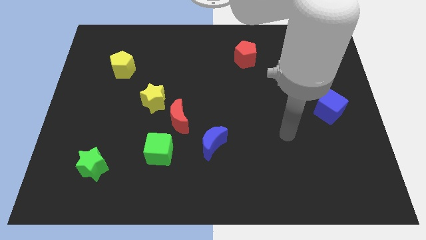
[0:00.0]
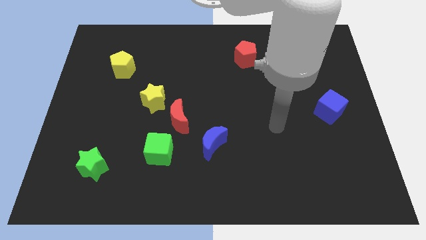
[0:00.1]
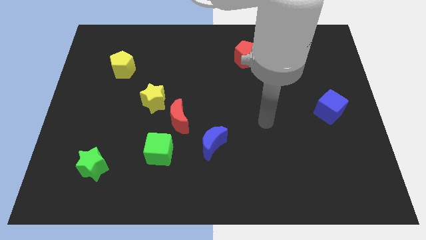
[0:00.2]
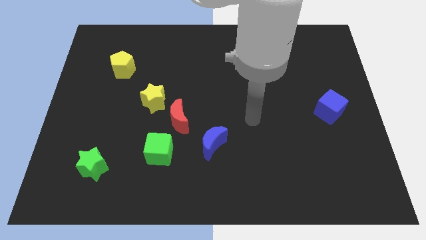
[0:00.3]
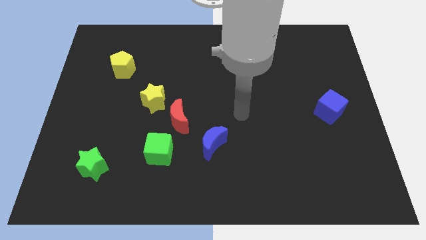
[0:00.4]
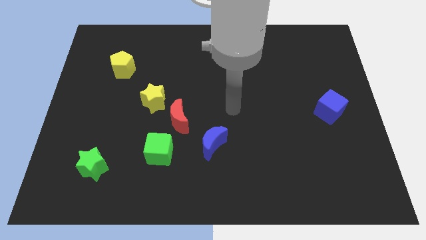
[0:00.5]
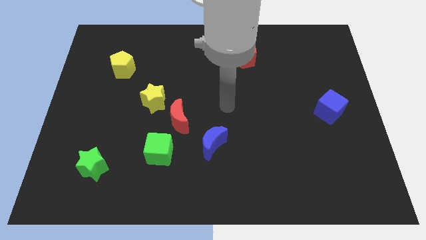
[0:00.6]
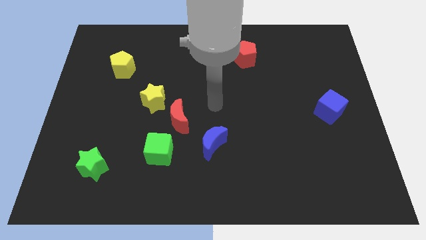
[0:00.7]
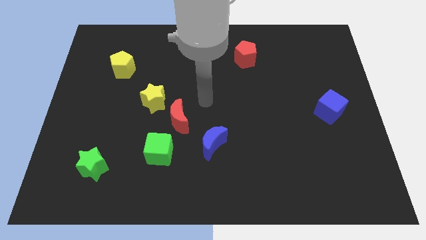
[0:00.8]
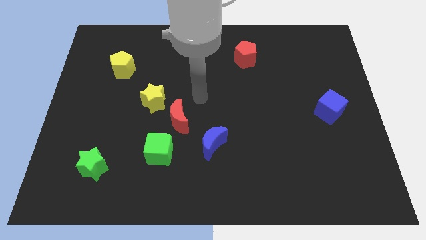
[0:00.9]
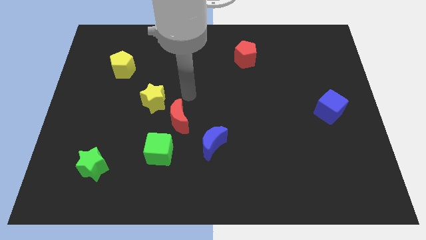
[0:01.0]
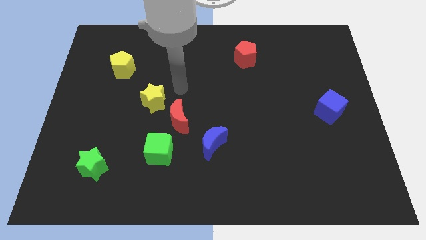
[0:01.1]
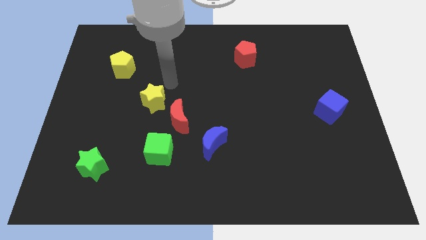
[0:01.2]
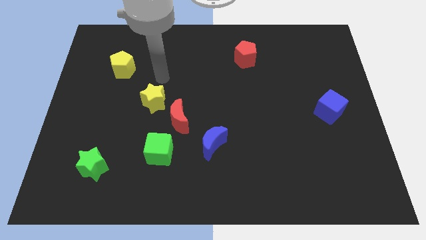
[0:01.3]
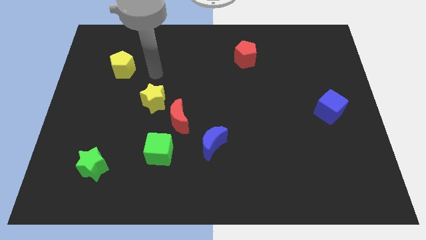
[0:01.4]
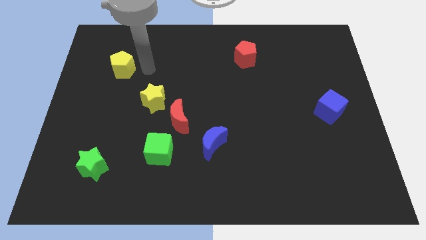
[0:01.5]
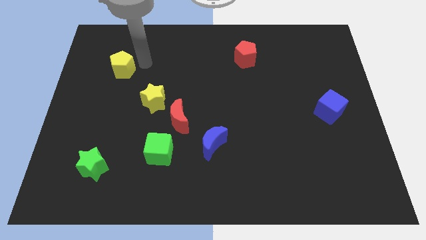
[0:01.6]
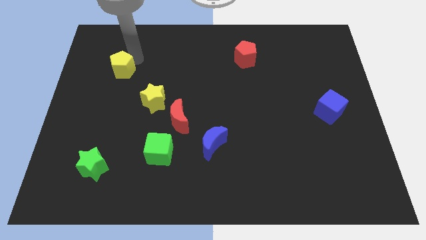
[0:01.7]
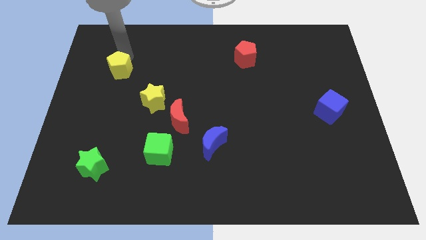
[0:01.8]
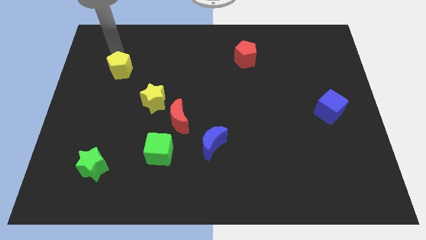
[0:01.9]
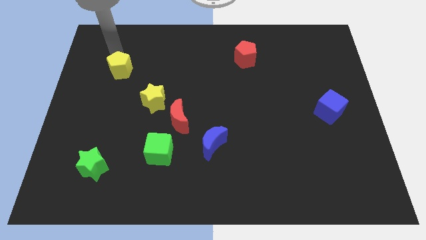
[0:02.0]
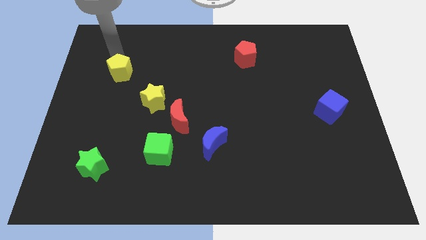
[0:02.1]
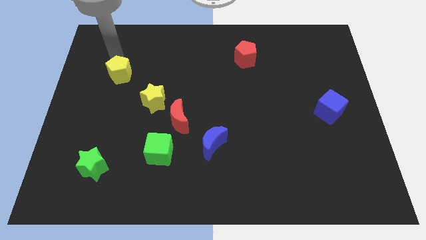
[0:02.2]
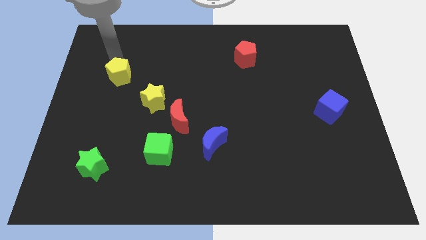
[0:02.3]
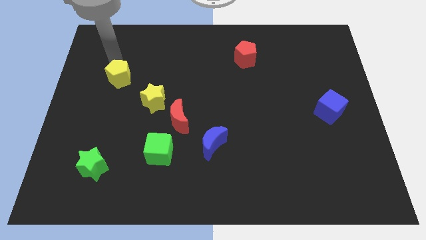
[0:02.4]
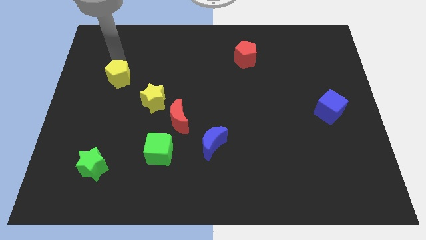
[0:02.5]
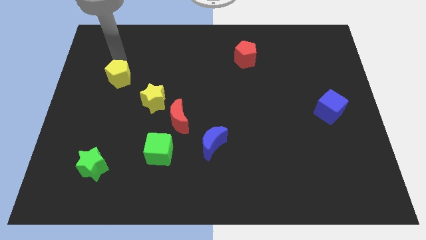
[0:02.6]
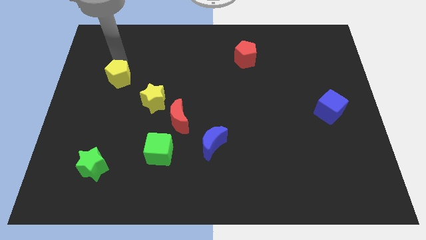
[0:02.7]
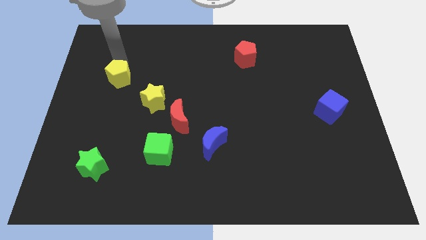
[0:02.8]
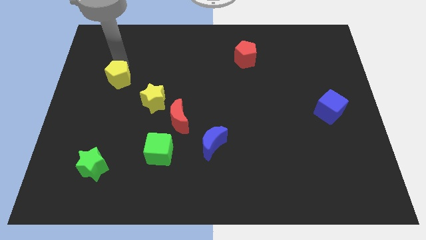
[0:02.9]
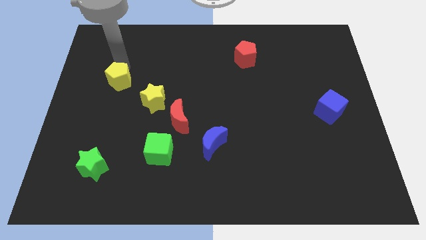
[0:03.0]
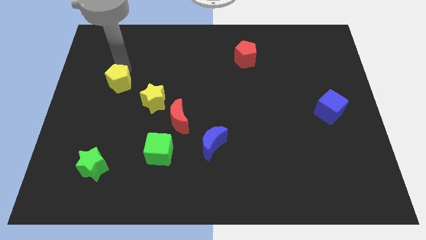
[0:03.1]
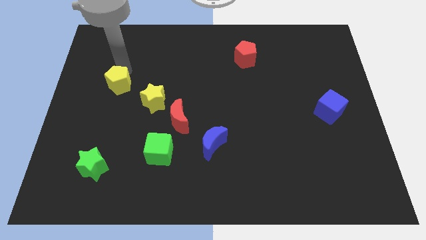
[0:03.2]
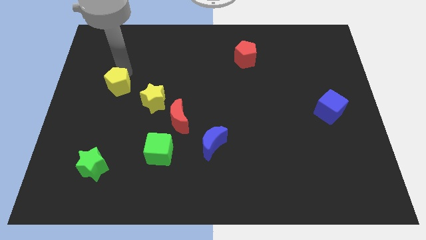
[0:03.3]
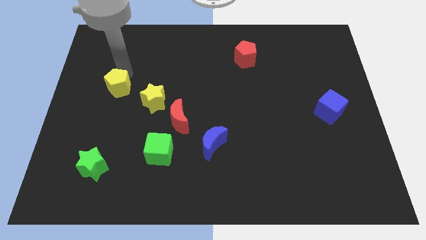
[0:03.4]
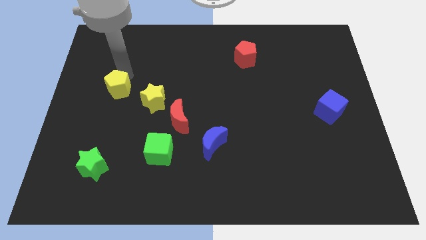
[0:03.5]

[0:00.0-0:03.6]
slide the yellow pentagon down slightly

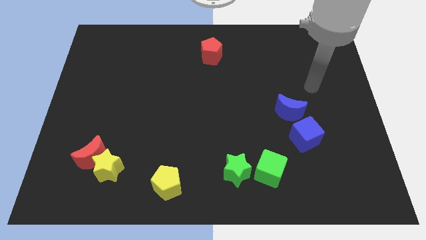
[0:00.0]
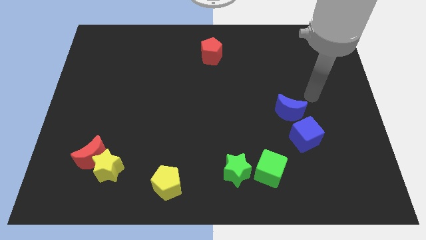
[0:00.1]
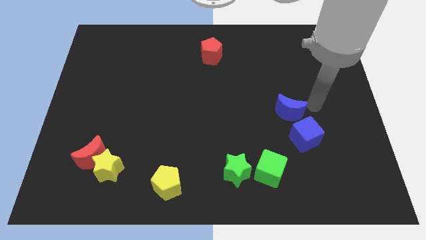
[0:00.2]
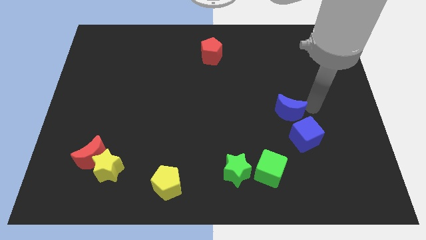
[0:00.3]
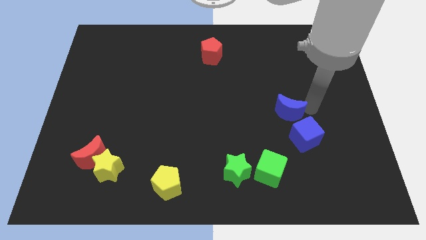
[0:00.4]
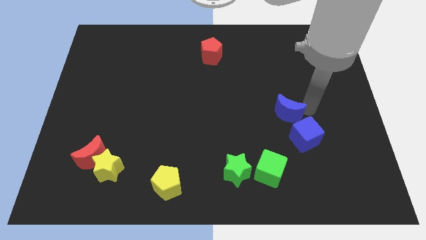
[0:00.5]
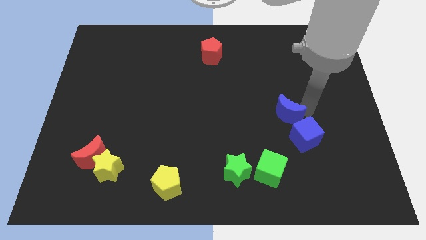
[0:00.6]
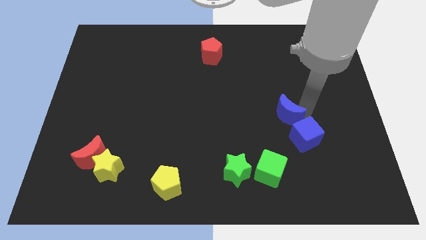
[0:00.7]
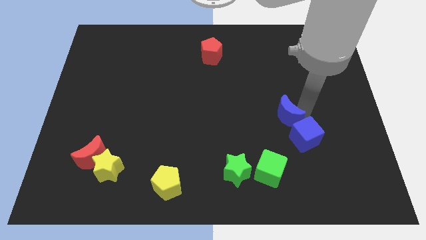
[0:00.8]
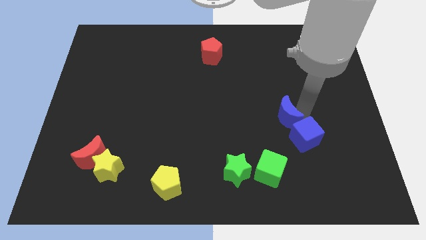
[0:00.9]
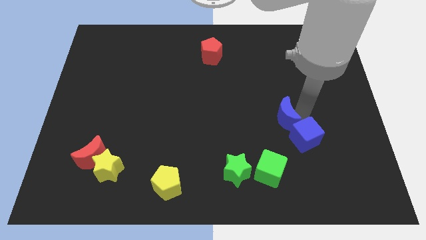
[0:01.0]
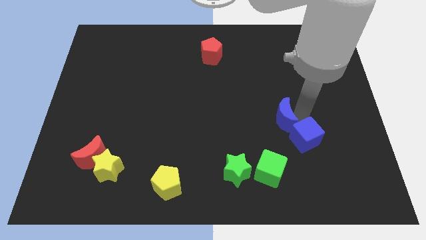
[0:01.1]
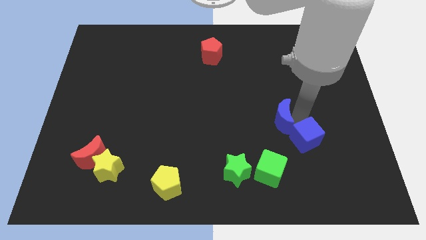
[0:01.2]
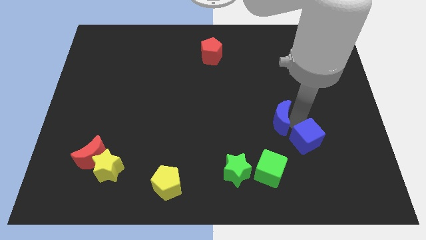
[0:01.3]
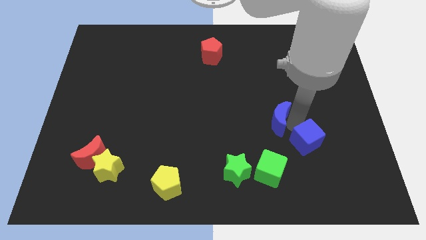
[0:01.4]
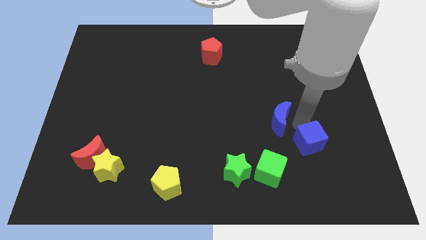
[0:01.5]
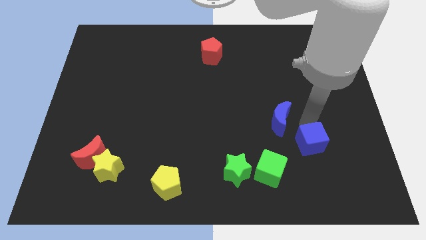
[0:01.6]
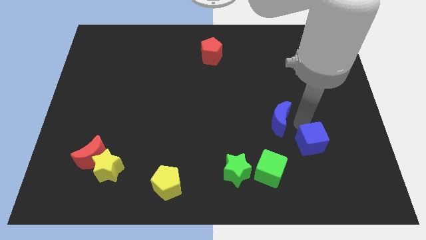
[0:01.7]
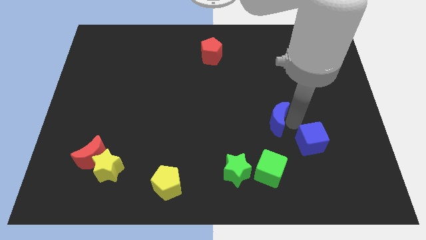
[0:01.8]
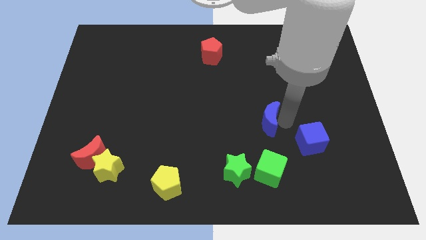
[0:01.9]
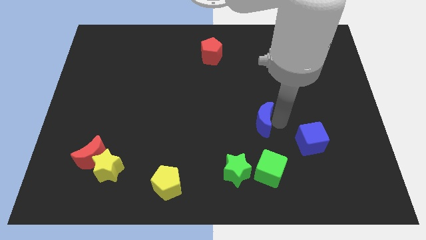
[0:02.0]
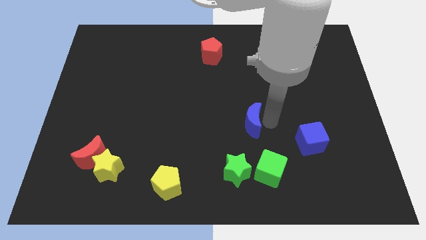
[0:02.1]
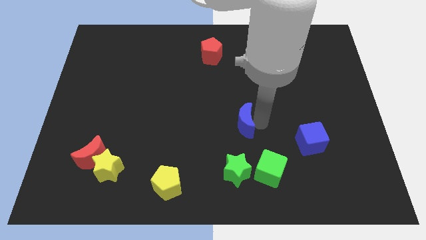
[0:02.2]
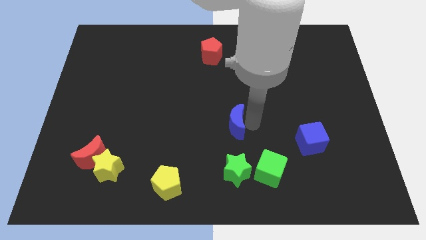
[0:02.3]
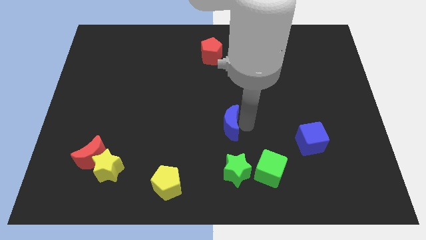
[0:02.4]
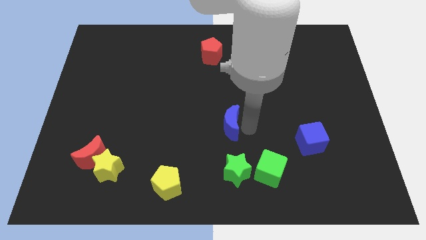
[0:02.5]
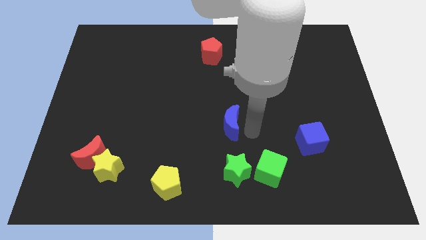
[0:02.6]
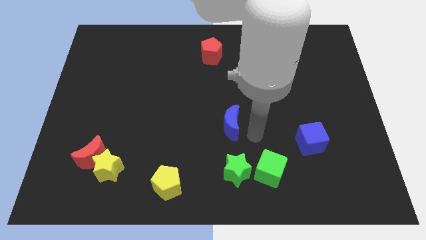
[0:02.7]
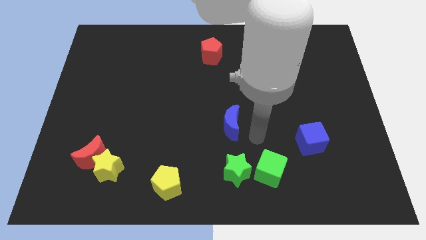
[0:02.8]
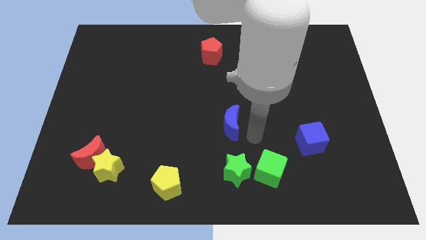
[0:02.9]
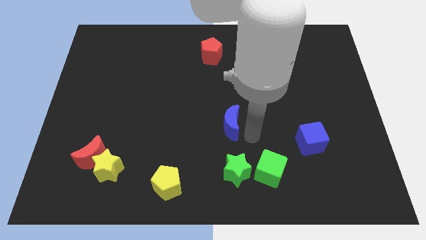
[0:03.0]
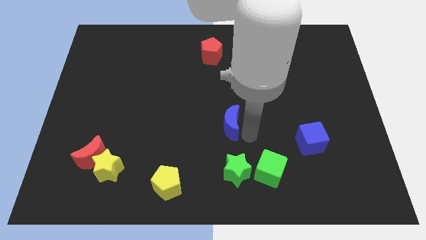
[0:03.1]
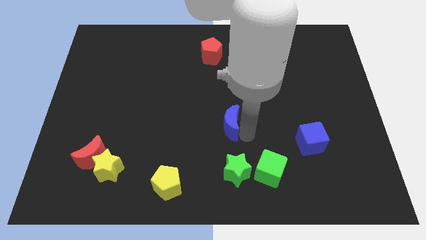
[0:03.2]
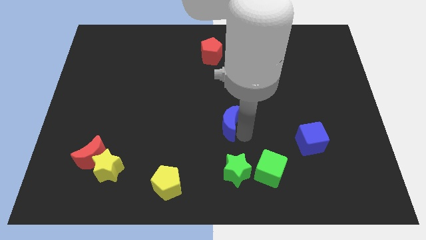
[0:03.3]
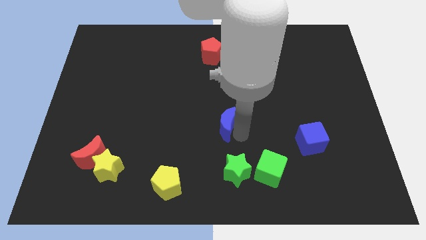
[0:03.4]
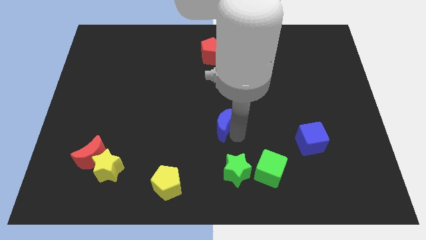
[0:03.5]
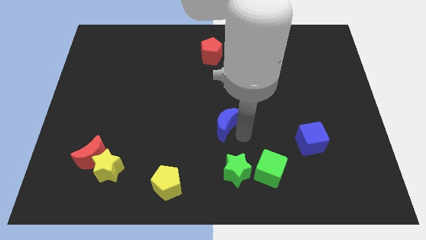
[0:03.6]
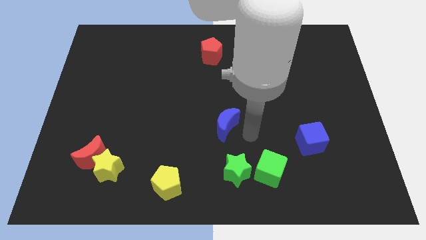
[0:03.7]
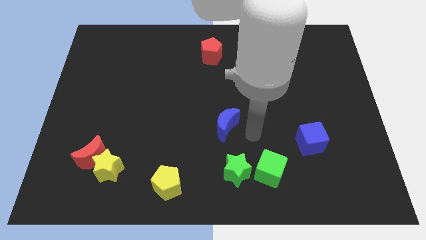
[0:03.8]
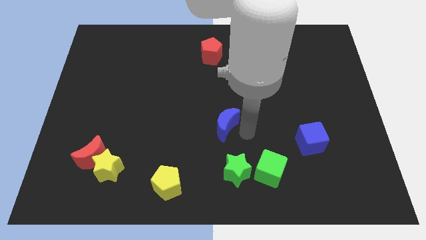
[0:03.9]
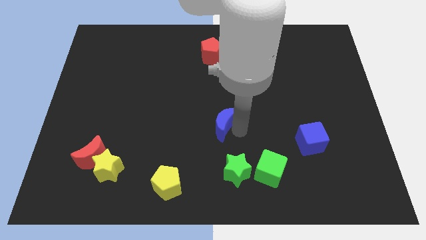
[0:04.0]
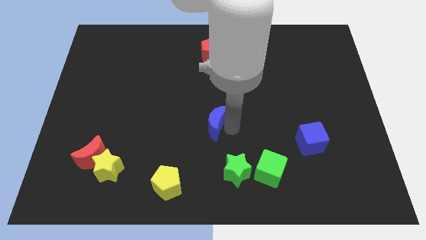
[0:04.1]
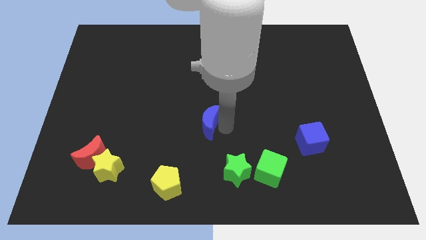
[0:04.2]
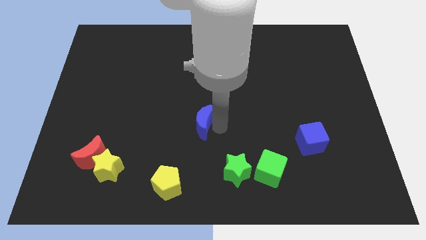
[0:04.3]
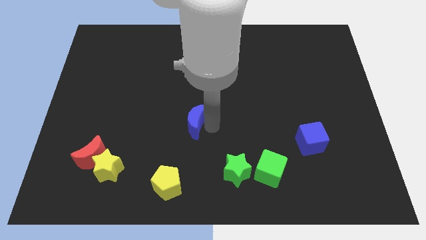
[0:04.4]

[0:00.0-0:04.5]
slide the blue moon to the left
